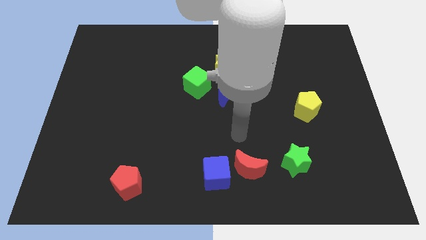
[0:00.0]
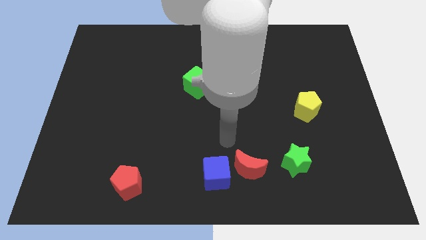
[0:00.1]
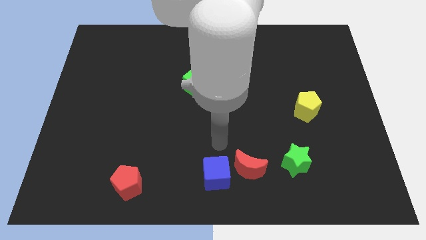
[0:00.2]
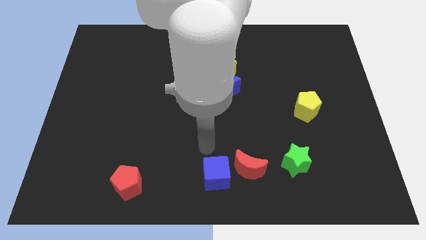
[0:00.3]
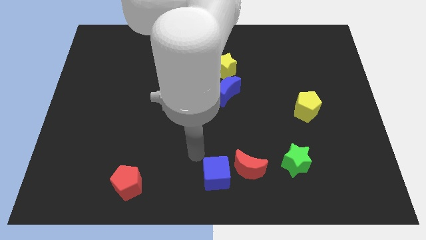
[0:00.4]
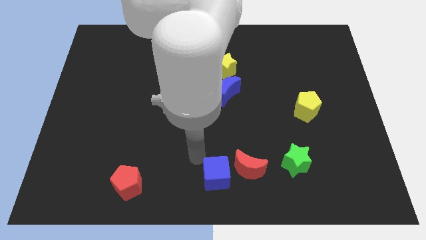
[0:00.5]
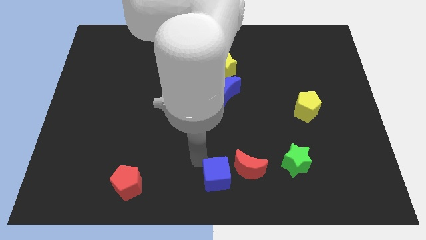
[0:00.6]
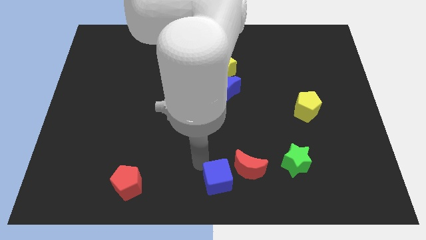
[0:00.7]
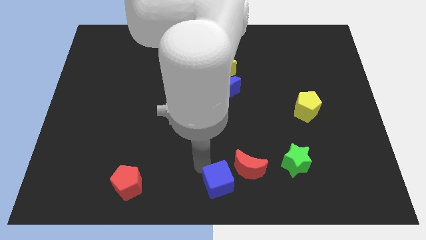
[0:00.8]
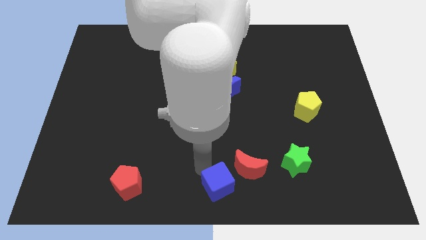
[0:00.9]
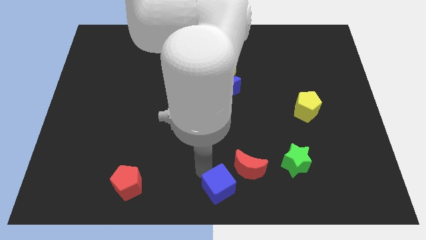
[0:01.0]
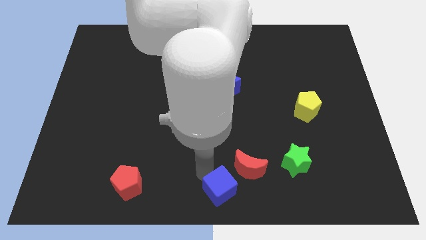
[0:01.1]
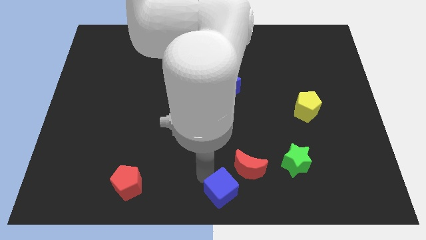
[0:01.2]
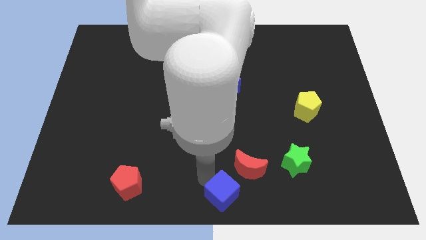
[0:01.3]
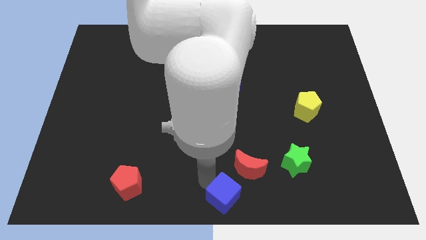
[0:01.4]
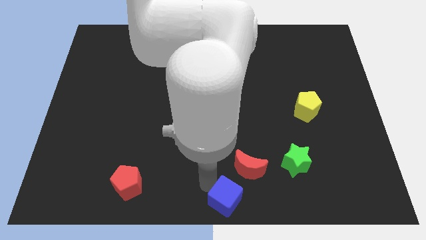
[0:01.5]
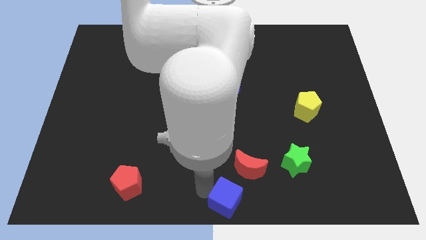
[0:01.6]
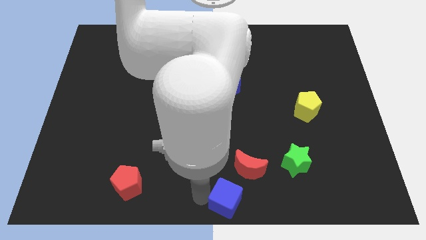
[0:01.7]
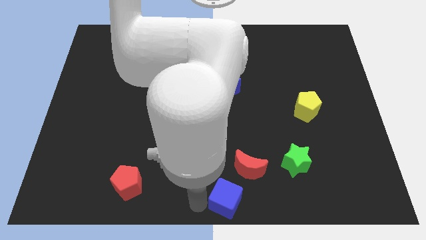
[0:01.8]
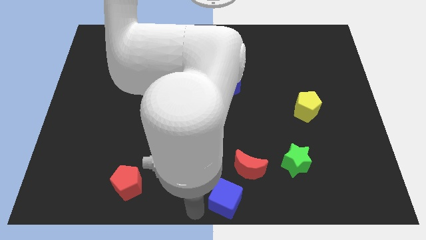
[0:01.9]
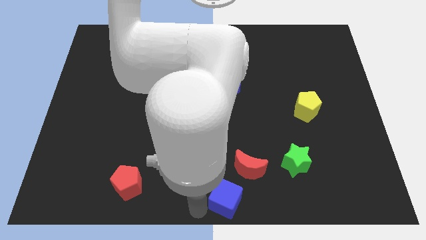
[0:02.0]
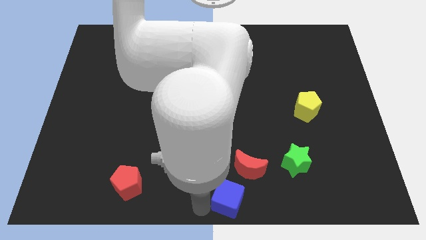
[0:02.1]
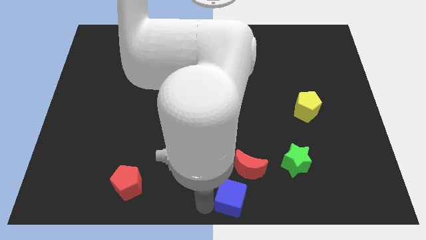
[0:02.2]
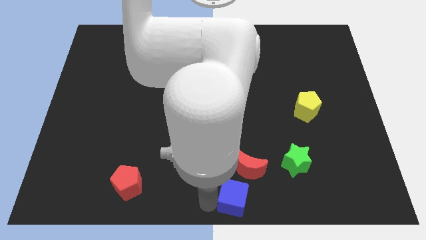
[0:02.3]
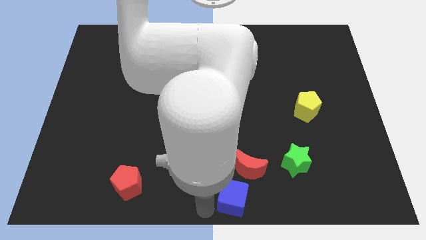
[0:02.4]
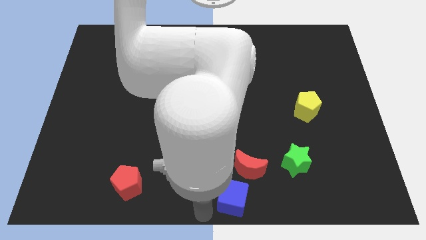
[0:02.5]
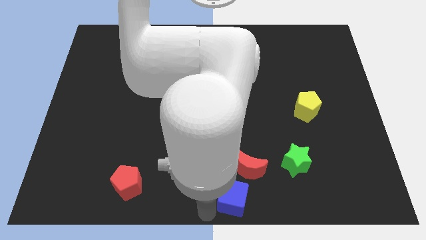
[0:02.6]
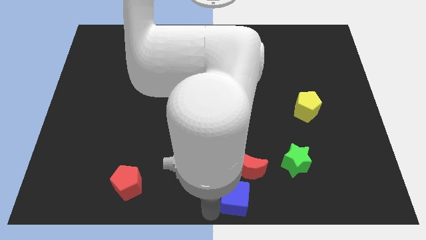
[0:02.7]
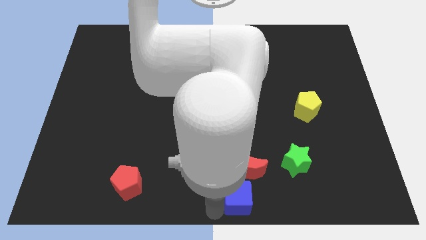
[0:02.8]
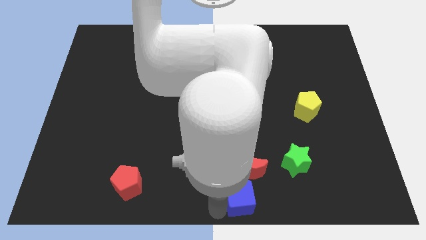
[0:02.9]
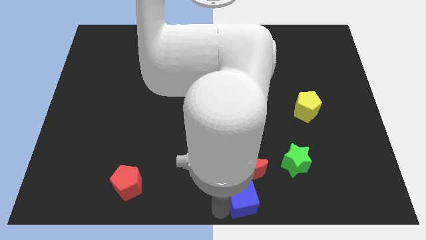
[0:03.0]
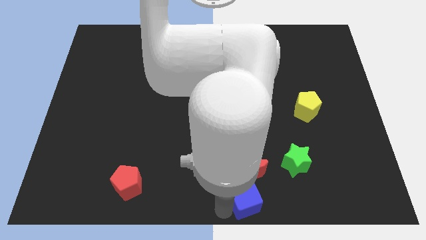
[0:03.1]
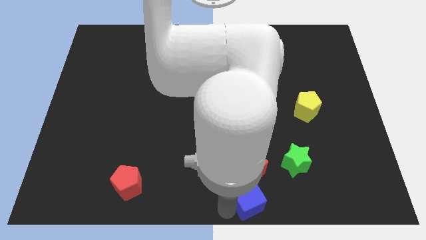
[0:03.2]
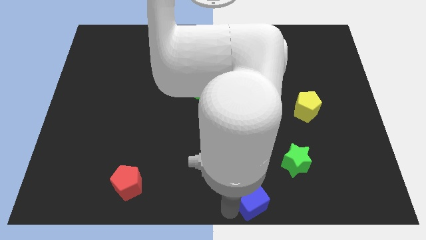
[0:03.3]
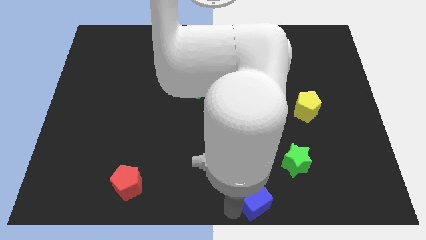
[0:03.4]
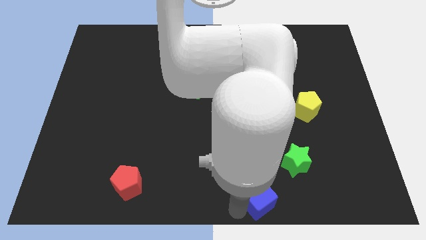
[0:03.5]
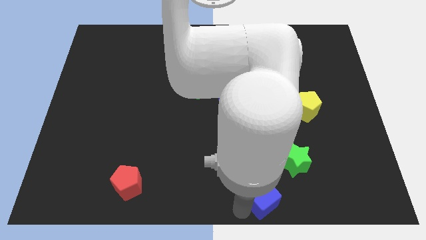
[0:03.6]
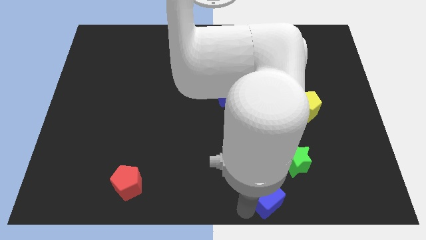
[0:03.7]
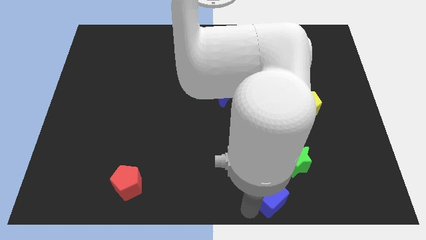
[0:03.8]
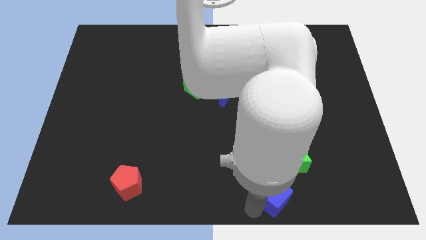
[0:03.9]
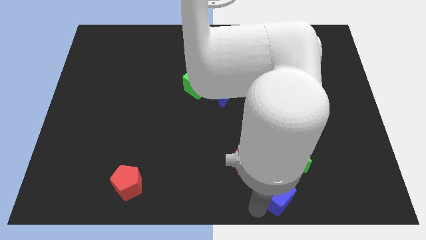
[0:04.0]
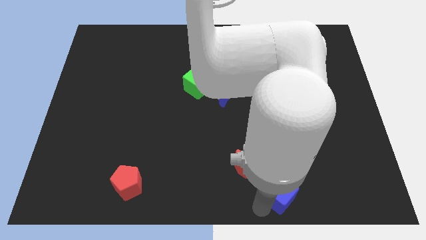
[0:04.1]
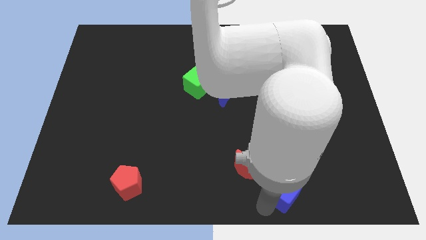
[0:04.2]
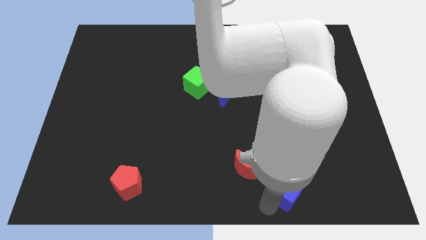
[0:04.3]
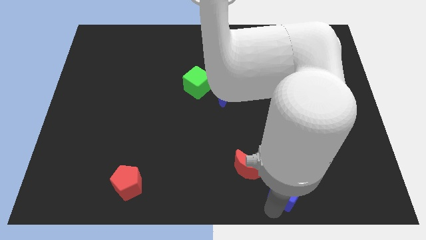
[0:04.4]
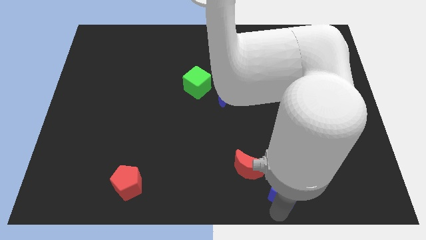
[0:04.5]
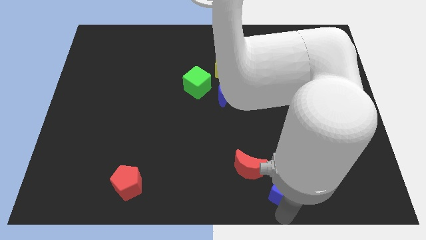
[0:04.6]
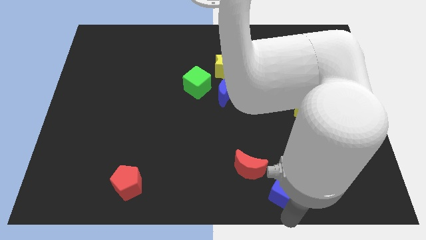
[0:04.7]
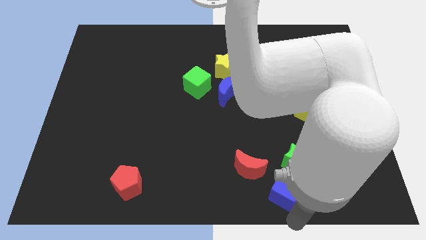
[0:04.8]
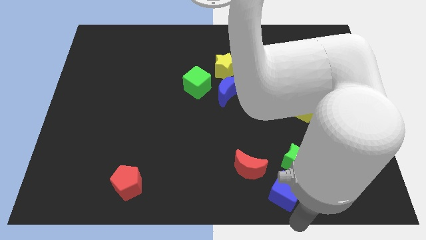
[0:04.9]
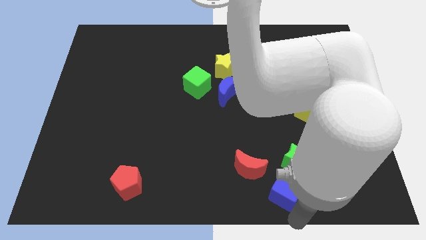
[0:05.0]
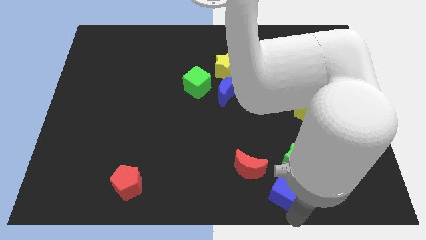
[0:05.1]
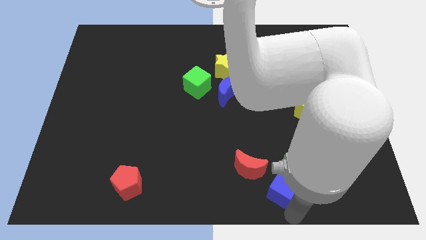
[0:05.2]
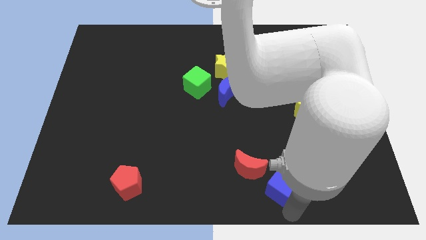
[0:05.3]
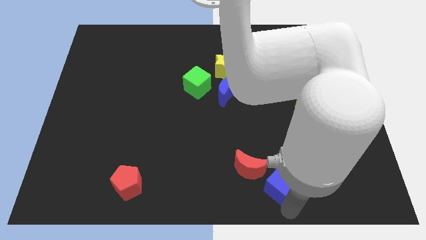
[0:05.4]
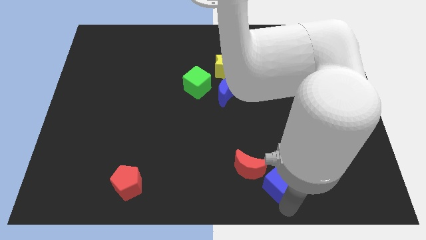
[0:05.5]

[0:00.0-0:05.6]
move the blue cube to the green star
